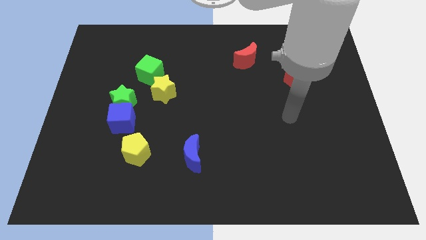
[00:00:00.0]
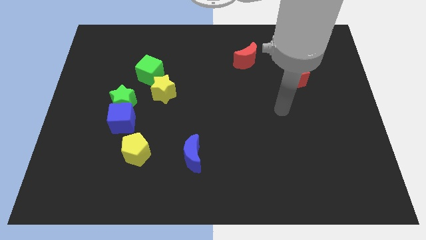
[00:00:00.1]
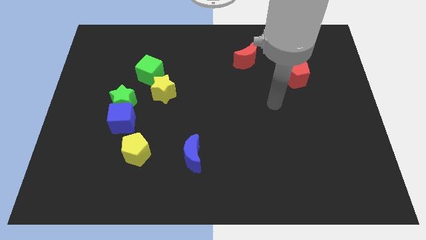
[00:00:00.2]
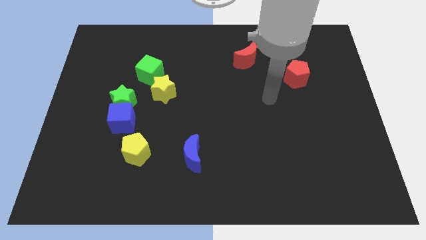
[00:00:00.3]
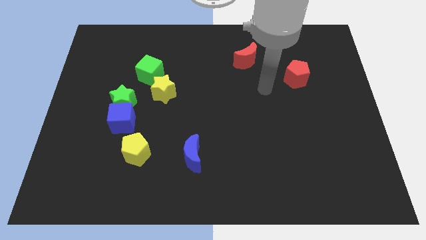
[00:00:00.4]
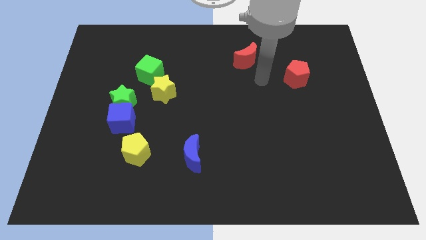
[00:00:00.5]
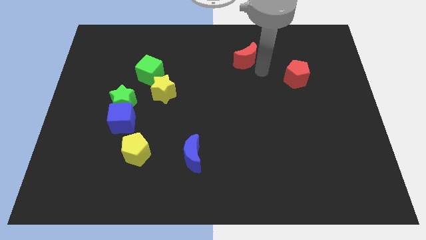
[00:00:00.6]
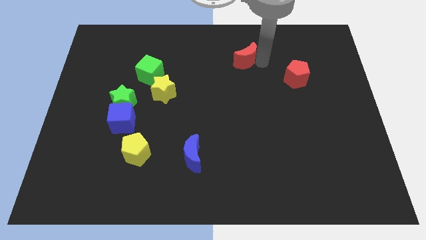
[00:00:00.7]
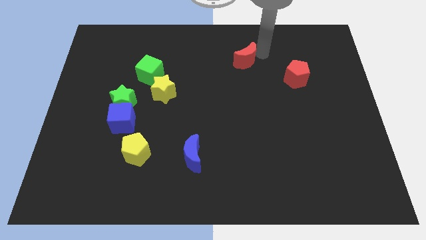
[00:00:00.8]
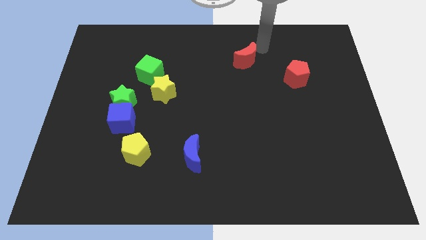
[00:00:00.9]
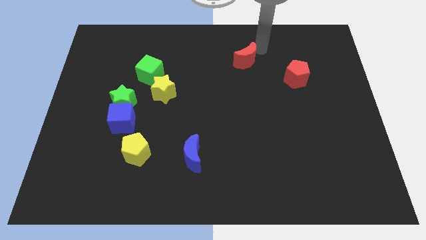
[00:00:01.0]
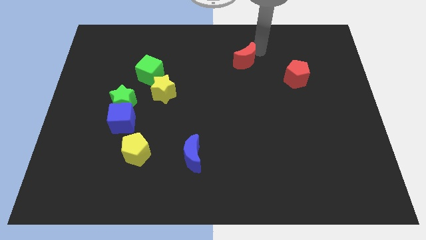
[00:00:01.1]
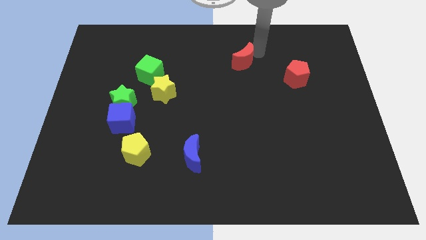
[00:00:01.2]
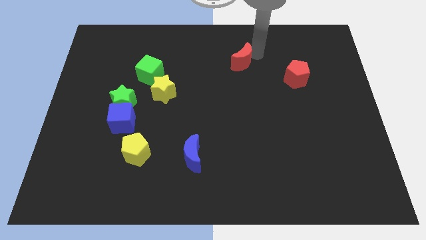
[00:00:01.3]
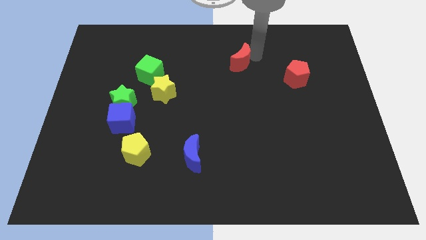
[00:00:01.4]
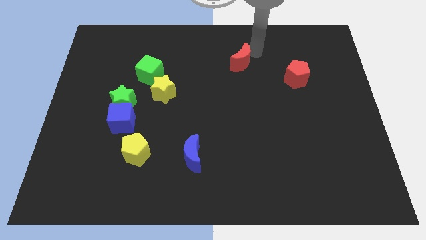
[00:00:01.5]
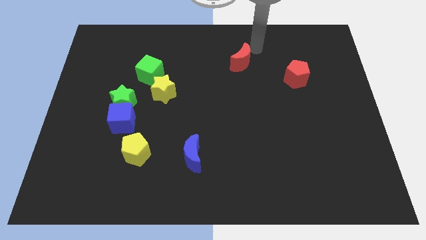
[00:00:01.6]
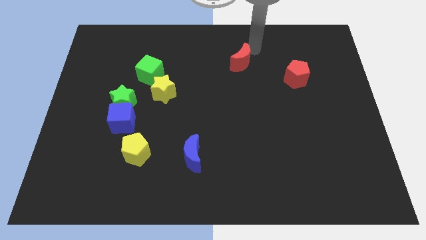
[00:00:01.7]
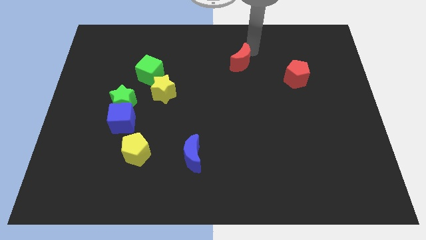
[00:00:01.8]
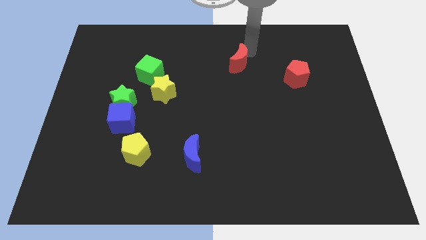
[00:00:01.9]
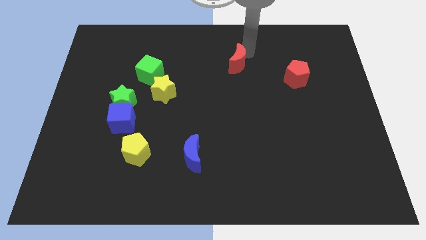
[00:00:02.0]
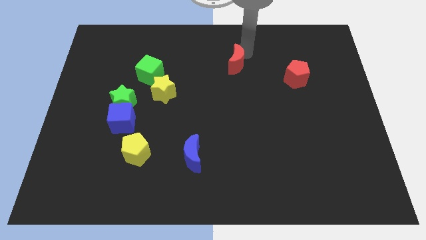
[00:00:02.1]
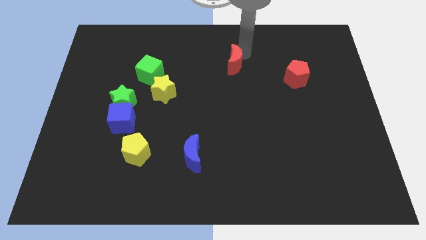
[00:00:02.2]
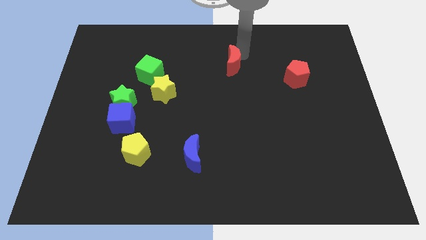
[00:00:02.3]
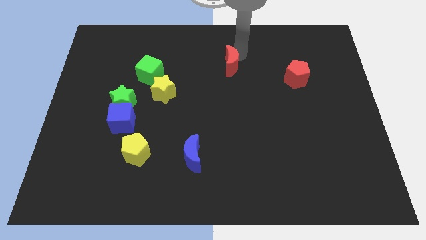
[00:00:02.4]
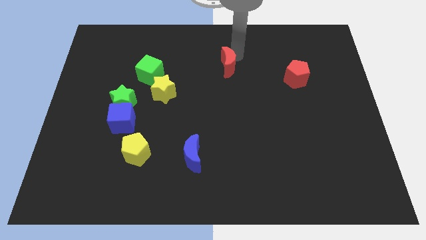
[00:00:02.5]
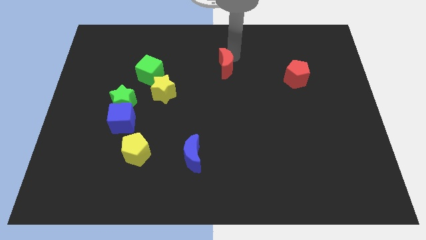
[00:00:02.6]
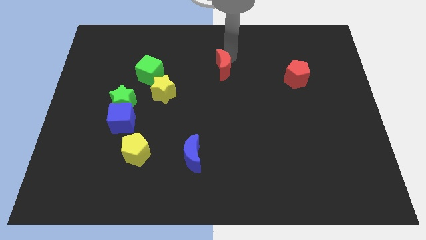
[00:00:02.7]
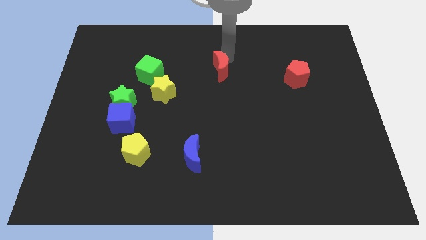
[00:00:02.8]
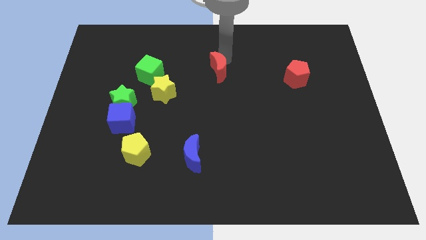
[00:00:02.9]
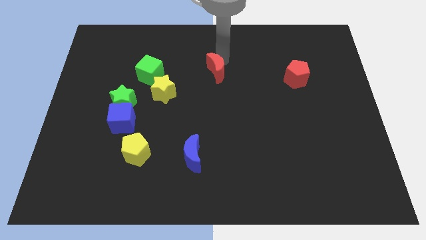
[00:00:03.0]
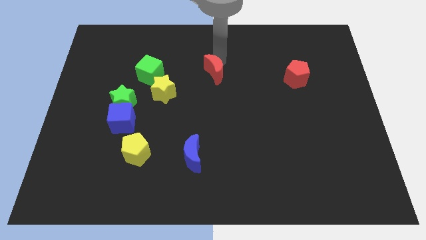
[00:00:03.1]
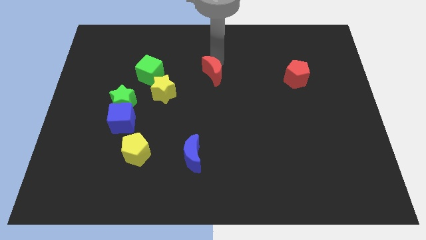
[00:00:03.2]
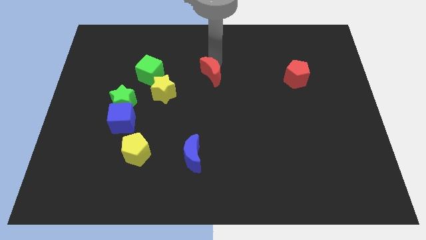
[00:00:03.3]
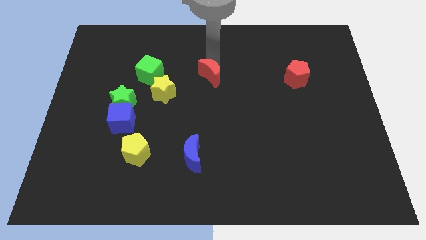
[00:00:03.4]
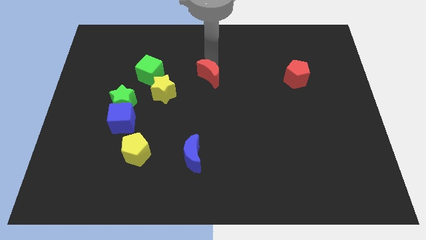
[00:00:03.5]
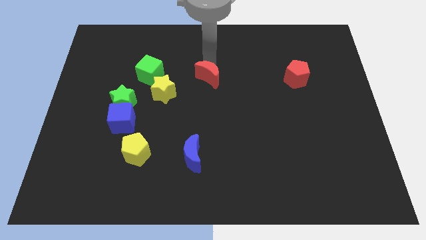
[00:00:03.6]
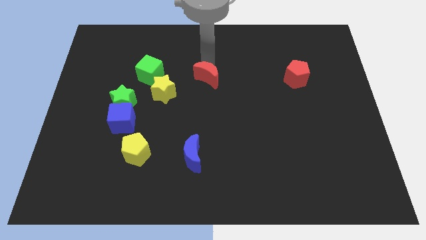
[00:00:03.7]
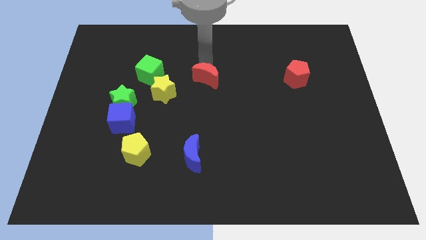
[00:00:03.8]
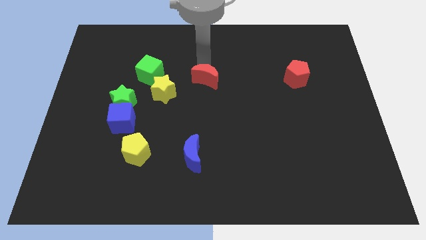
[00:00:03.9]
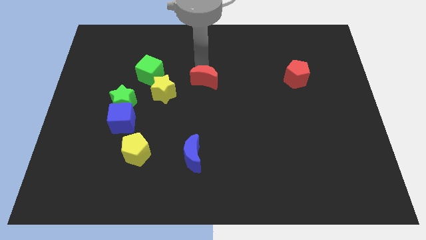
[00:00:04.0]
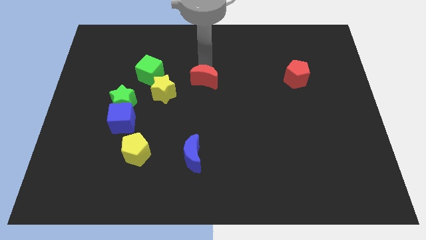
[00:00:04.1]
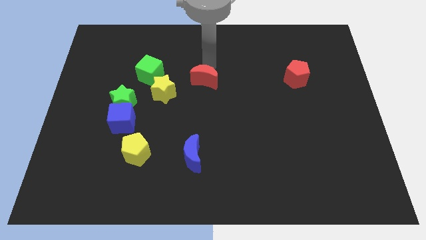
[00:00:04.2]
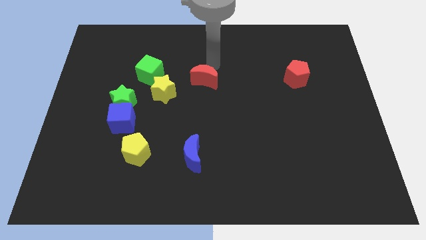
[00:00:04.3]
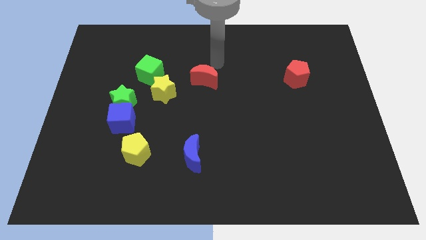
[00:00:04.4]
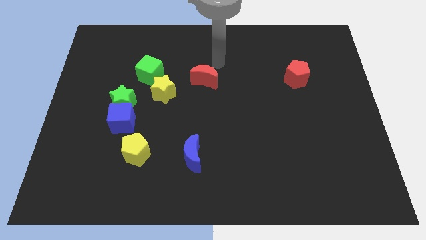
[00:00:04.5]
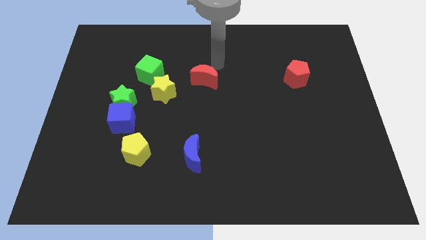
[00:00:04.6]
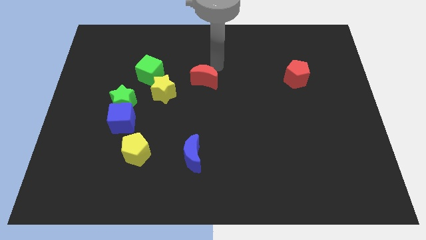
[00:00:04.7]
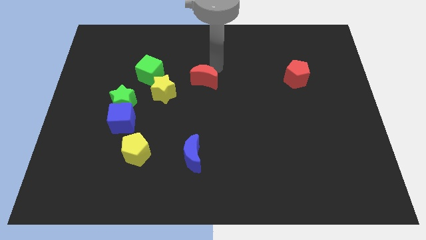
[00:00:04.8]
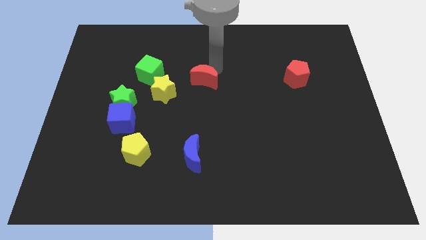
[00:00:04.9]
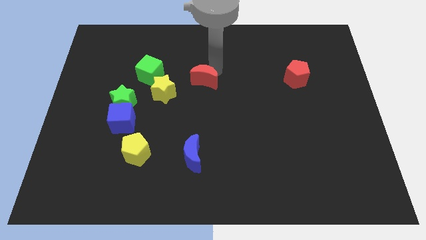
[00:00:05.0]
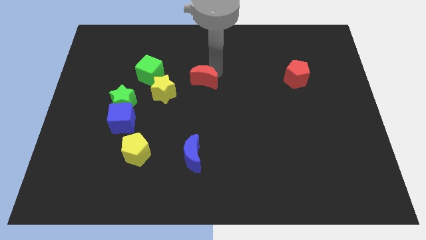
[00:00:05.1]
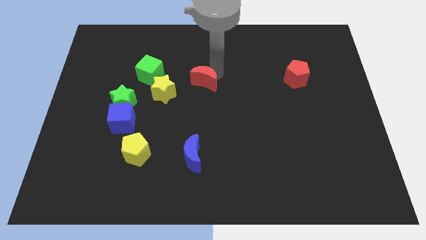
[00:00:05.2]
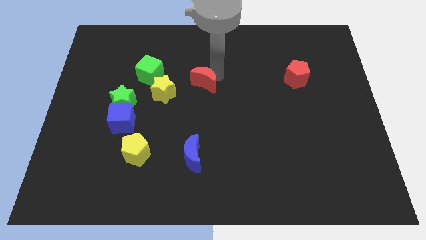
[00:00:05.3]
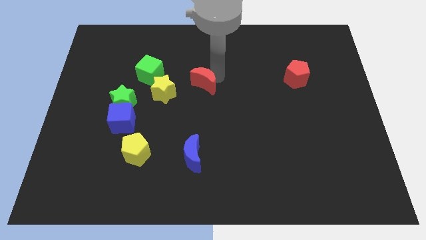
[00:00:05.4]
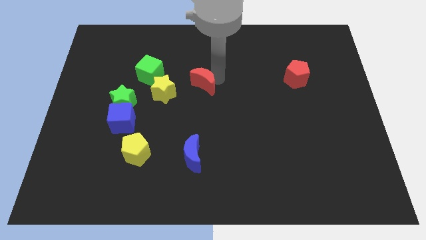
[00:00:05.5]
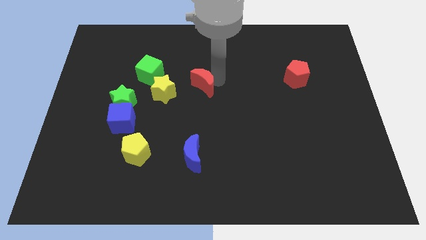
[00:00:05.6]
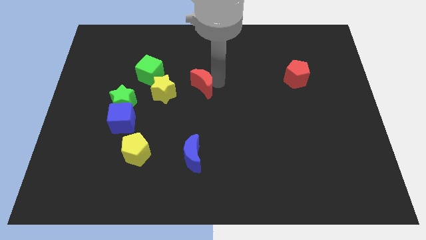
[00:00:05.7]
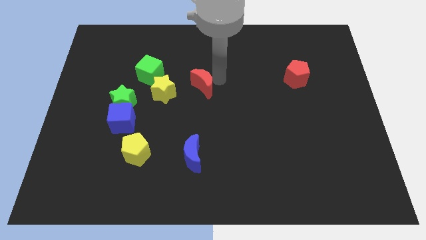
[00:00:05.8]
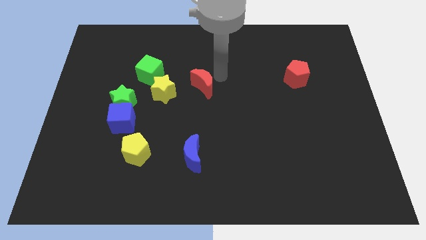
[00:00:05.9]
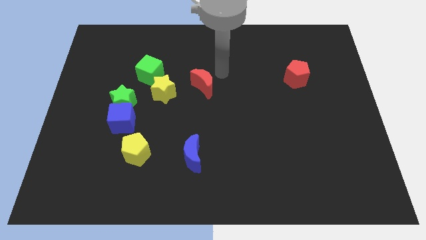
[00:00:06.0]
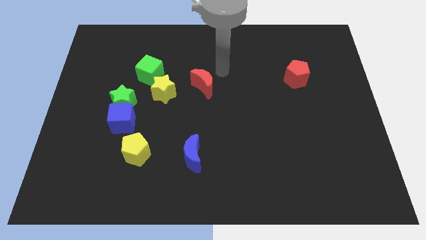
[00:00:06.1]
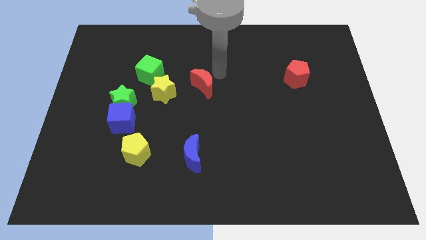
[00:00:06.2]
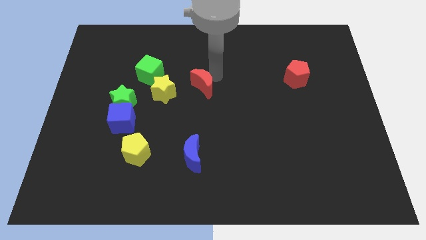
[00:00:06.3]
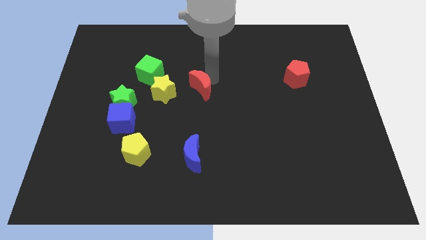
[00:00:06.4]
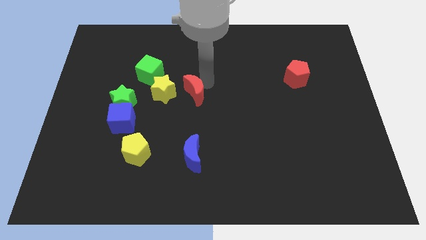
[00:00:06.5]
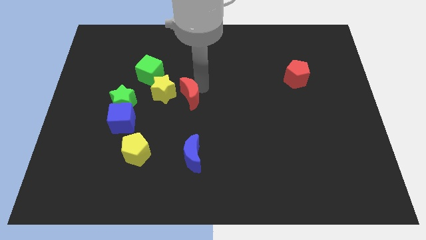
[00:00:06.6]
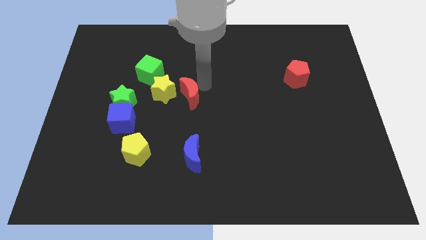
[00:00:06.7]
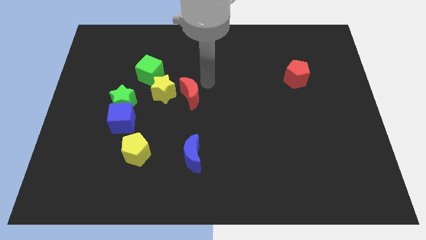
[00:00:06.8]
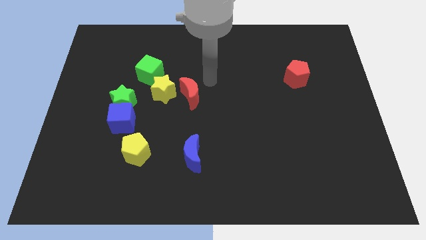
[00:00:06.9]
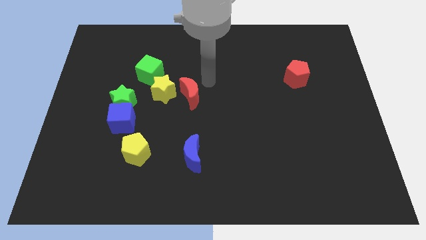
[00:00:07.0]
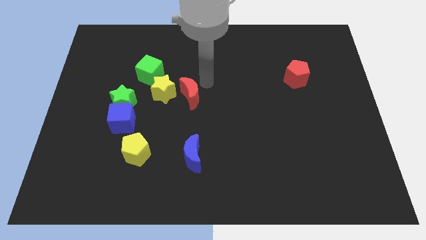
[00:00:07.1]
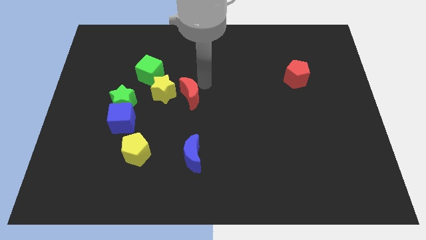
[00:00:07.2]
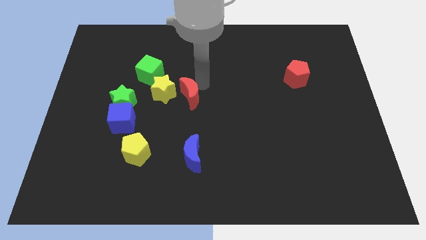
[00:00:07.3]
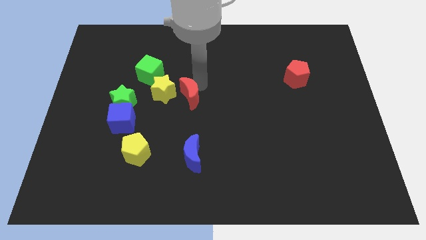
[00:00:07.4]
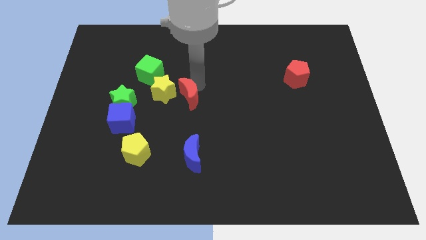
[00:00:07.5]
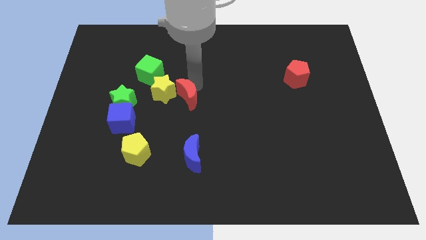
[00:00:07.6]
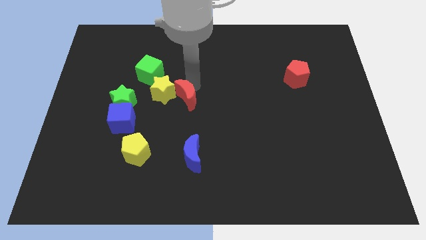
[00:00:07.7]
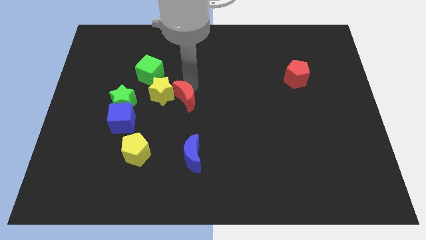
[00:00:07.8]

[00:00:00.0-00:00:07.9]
slide the red moon downwards and then to the left
